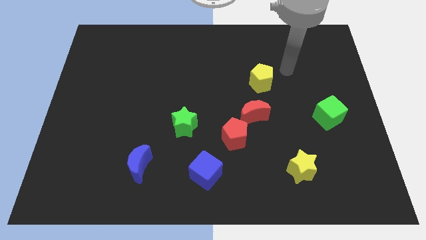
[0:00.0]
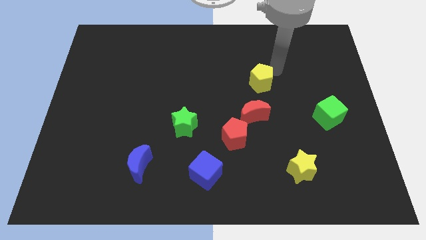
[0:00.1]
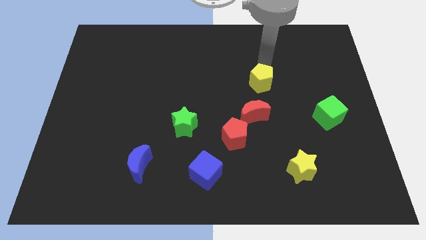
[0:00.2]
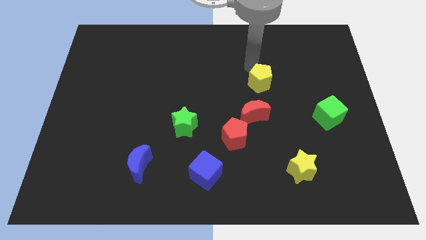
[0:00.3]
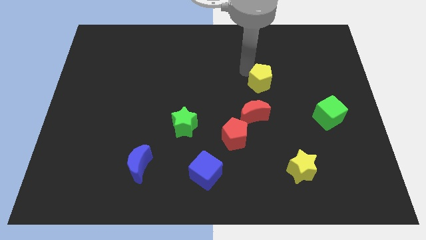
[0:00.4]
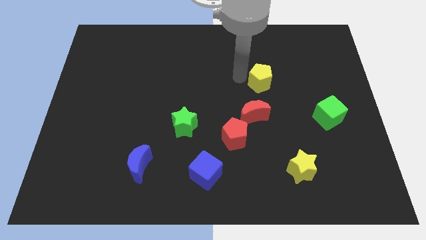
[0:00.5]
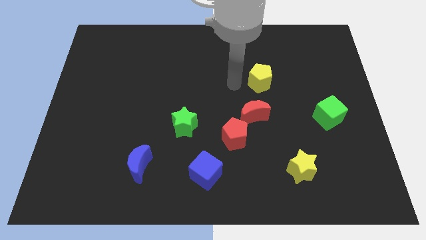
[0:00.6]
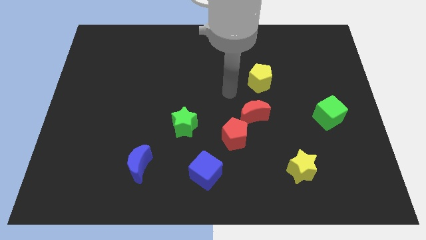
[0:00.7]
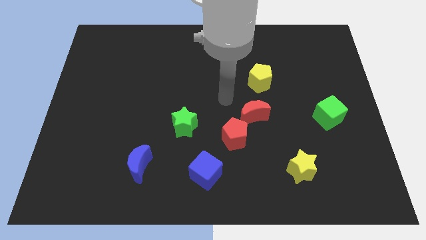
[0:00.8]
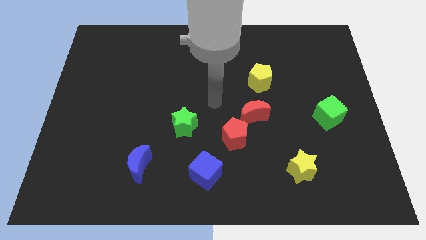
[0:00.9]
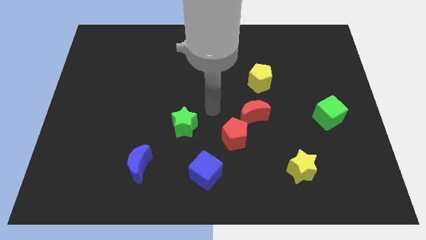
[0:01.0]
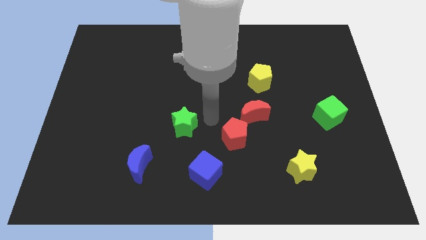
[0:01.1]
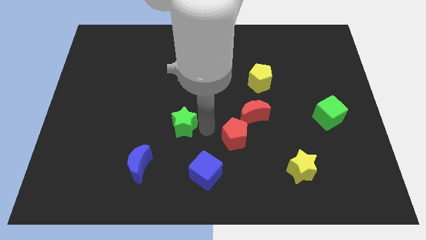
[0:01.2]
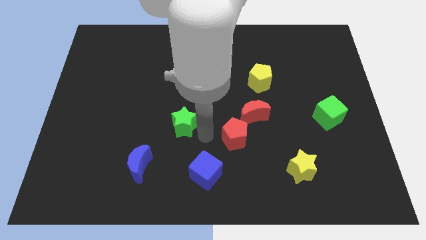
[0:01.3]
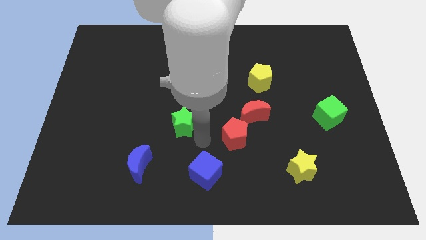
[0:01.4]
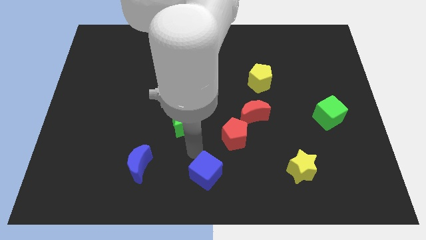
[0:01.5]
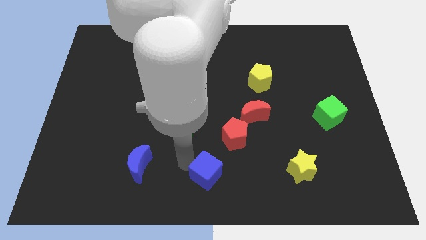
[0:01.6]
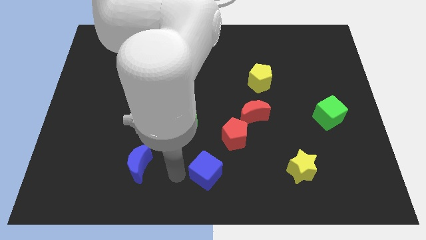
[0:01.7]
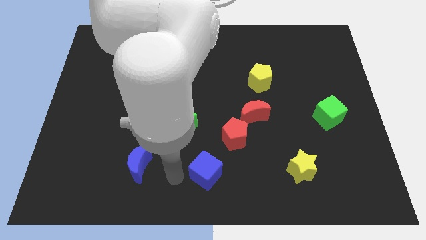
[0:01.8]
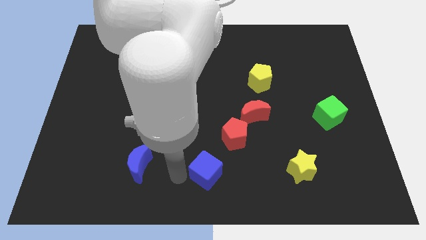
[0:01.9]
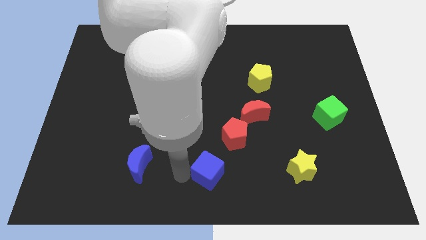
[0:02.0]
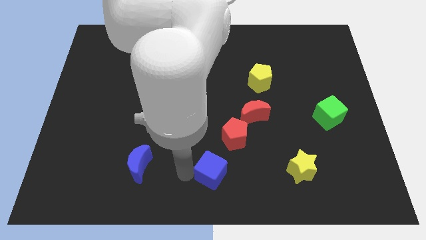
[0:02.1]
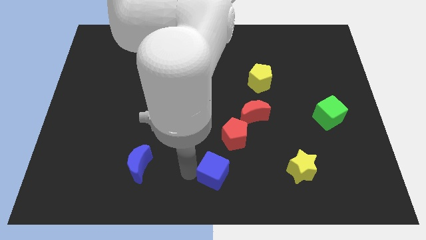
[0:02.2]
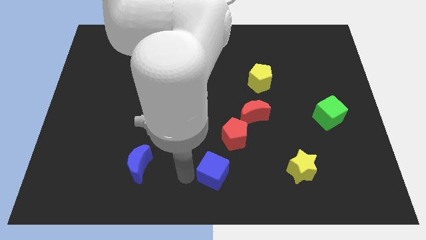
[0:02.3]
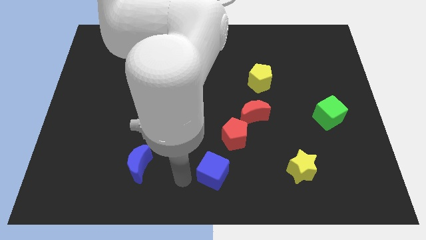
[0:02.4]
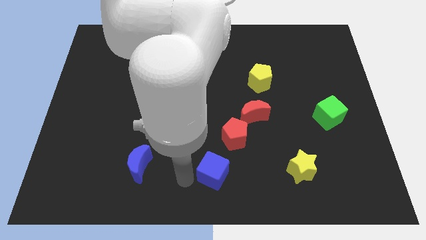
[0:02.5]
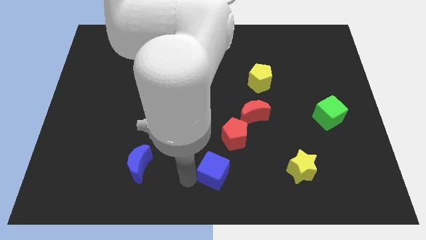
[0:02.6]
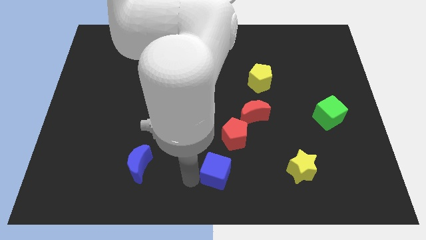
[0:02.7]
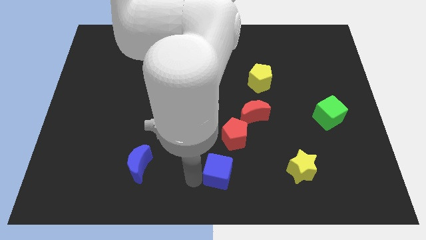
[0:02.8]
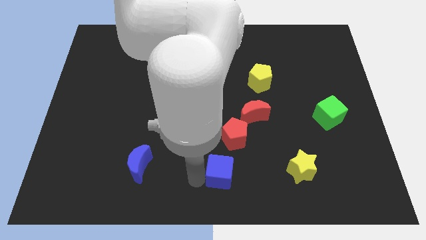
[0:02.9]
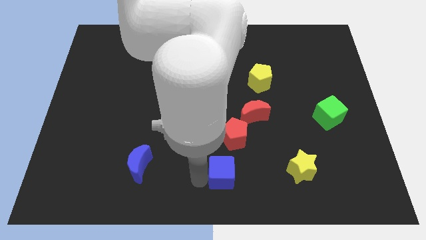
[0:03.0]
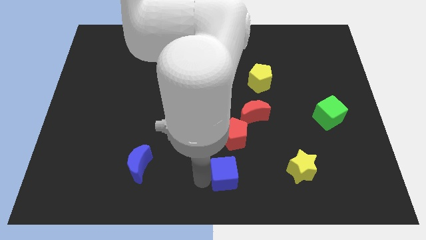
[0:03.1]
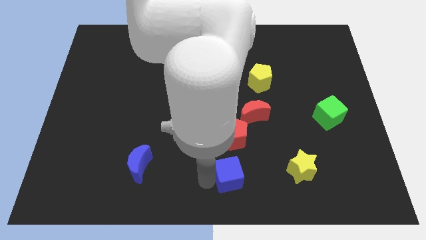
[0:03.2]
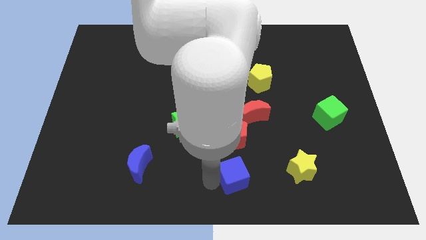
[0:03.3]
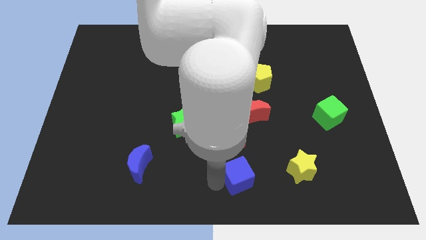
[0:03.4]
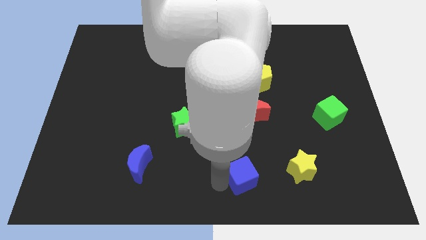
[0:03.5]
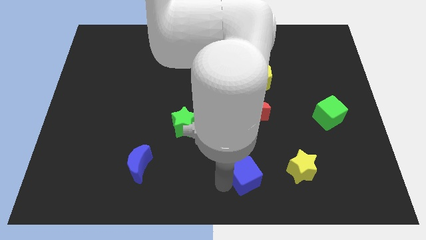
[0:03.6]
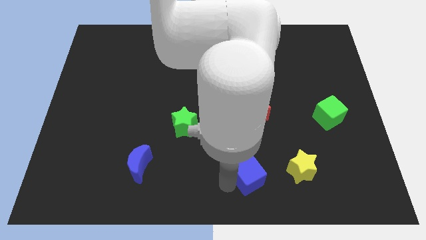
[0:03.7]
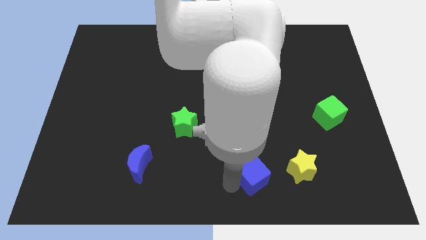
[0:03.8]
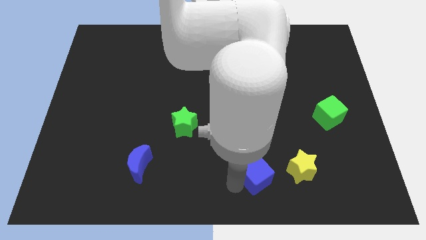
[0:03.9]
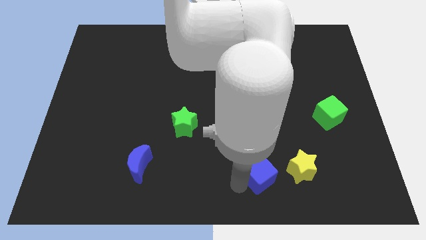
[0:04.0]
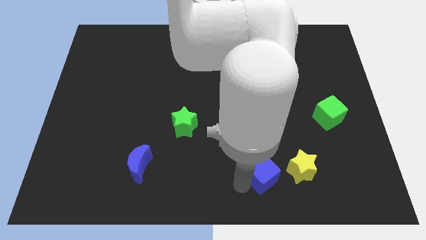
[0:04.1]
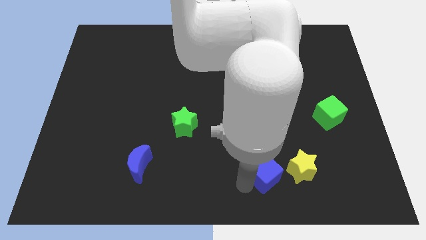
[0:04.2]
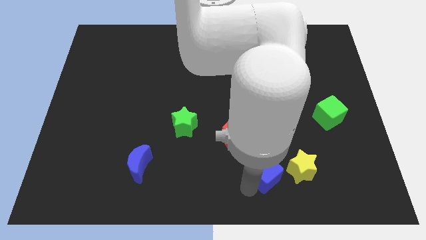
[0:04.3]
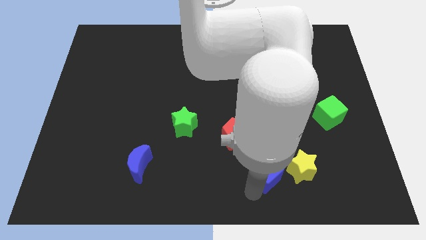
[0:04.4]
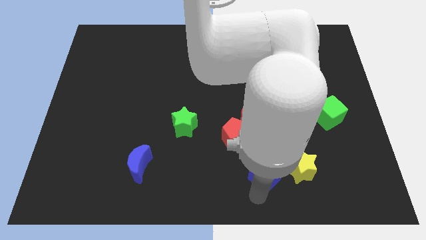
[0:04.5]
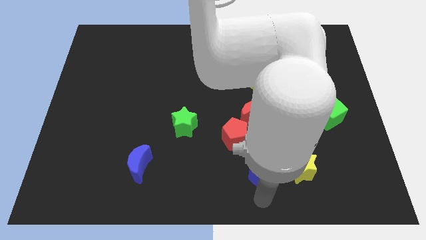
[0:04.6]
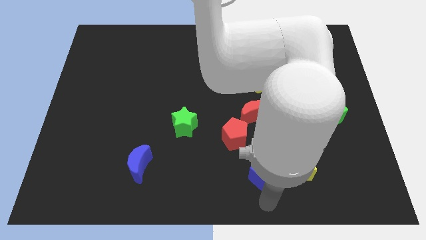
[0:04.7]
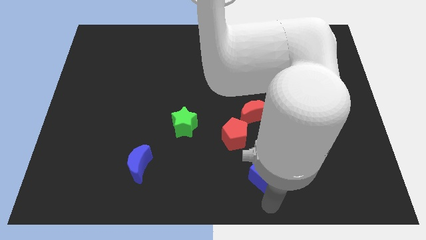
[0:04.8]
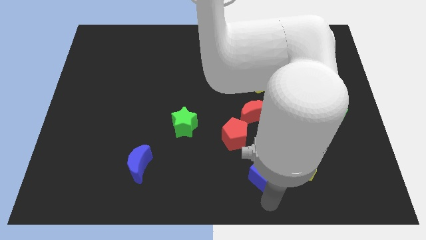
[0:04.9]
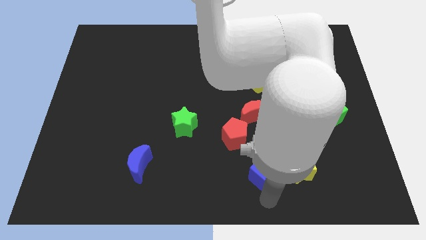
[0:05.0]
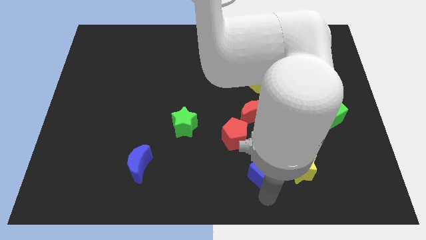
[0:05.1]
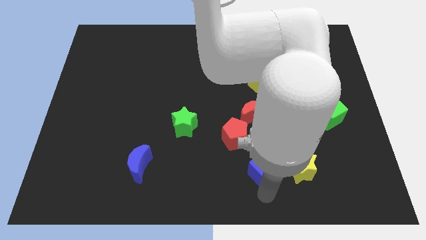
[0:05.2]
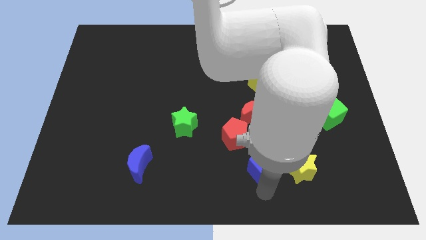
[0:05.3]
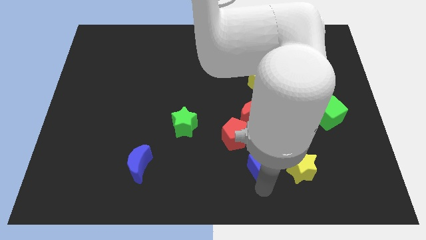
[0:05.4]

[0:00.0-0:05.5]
push the blue cube diagonally up and to the left of the yellow star

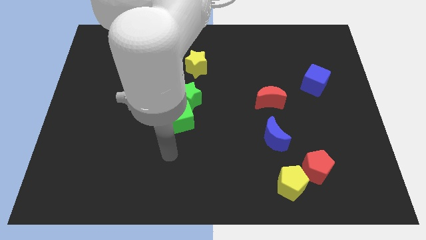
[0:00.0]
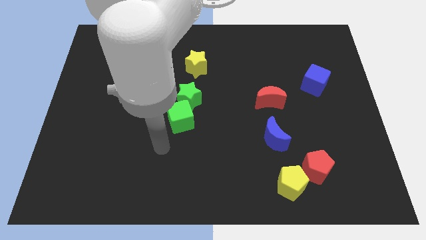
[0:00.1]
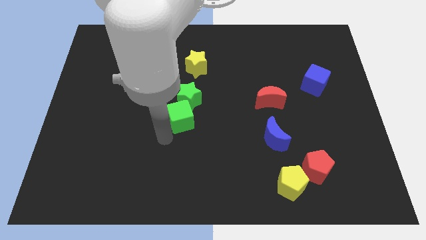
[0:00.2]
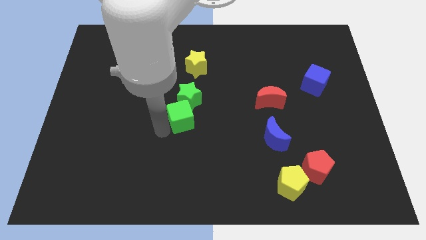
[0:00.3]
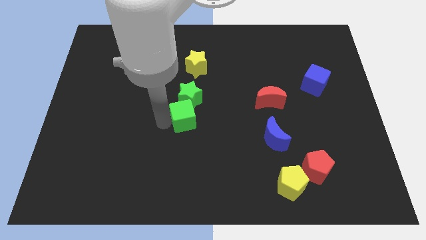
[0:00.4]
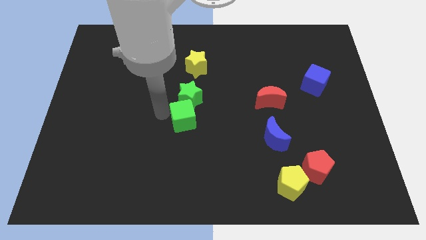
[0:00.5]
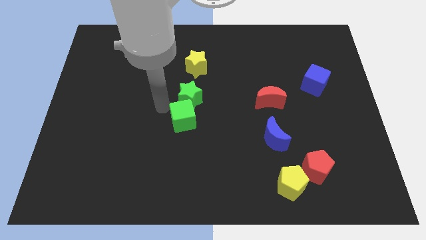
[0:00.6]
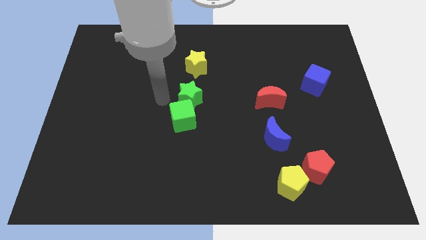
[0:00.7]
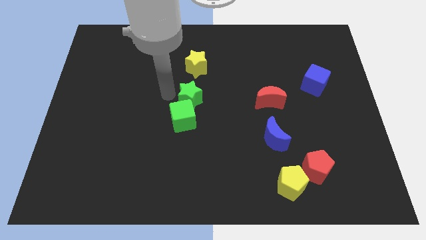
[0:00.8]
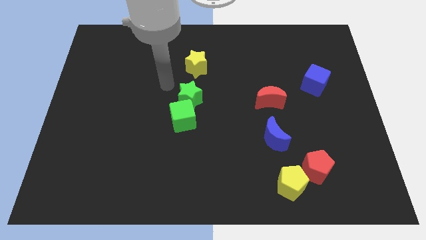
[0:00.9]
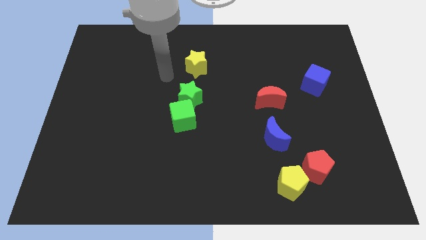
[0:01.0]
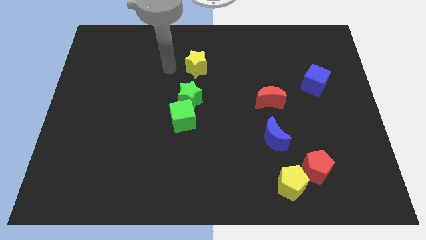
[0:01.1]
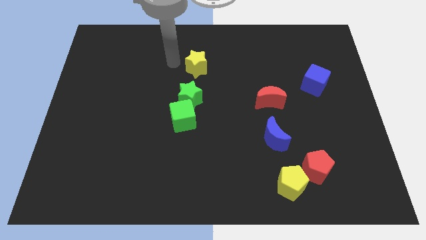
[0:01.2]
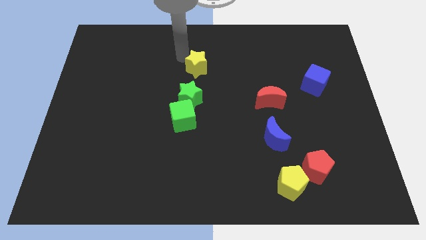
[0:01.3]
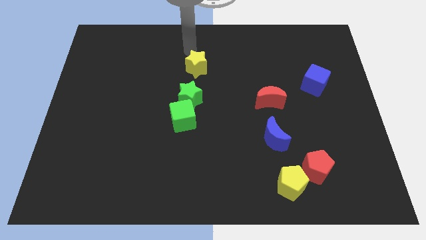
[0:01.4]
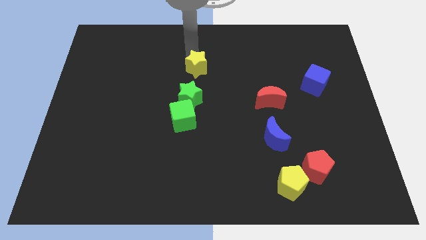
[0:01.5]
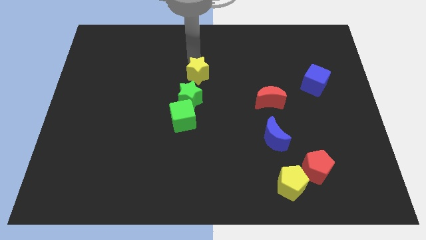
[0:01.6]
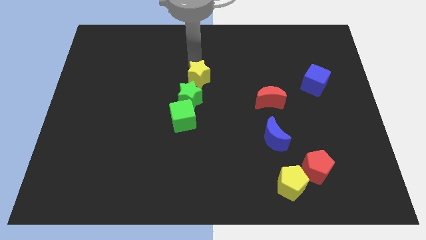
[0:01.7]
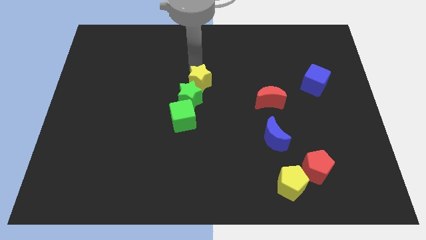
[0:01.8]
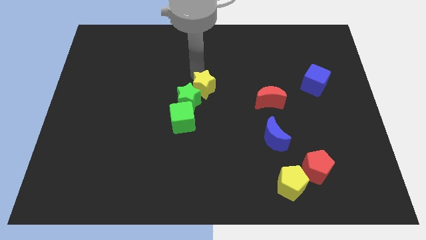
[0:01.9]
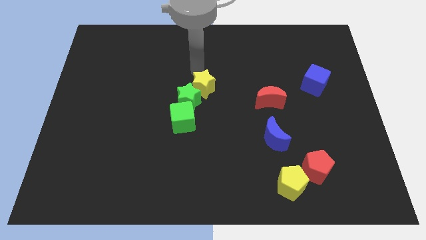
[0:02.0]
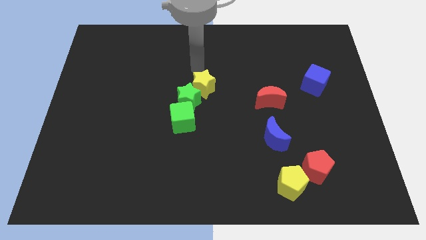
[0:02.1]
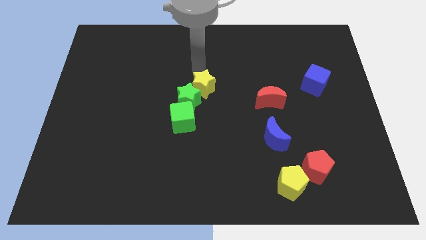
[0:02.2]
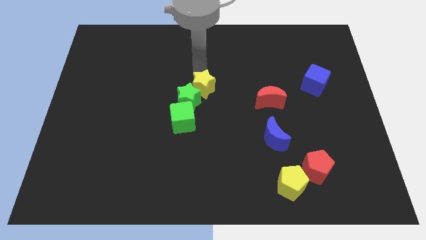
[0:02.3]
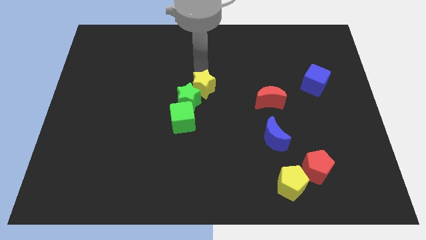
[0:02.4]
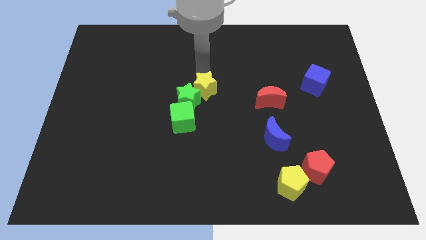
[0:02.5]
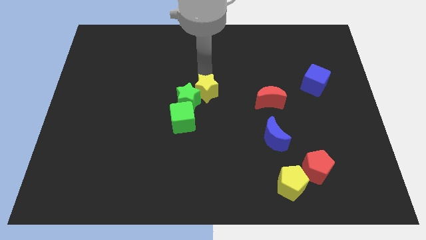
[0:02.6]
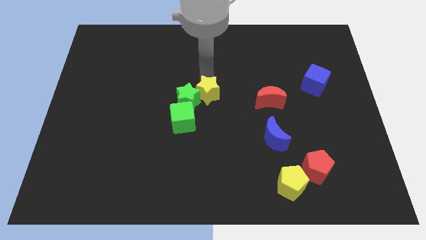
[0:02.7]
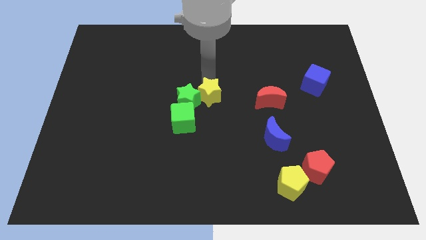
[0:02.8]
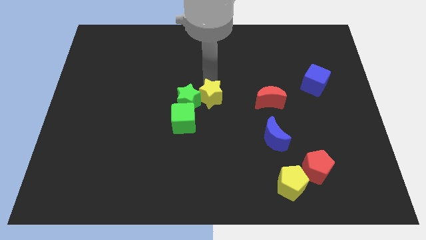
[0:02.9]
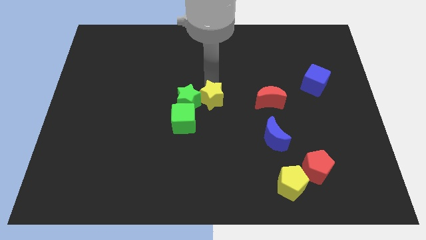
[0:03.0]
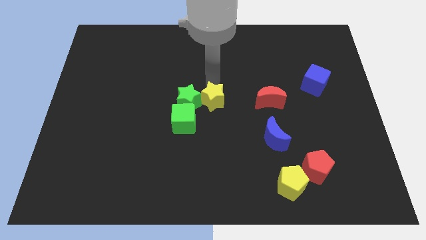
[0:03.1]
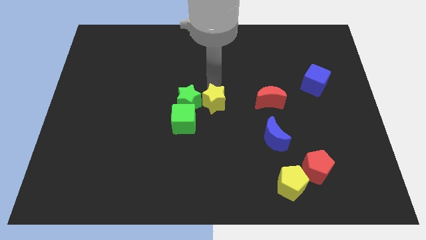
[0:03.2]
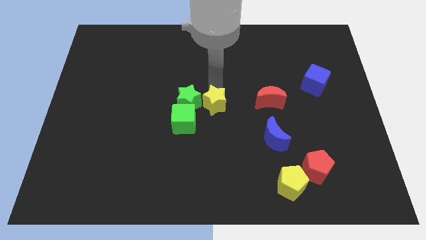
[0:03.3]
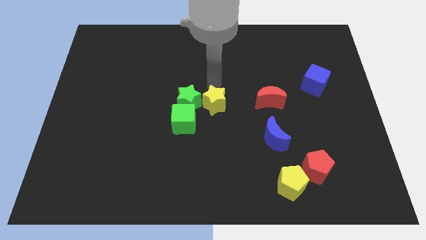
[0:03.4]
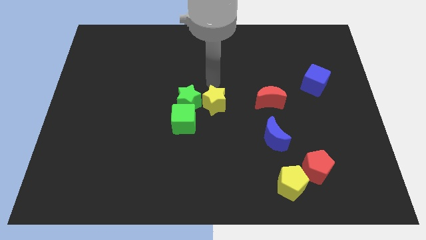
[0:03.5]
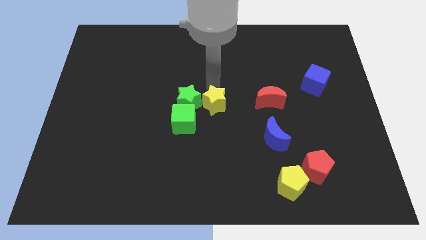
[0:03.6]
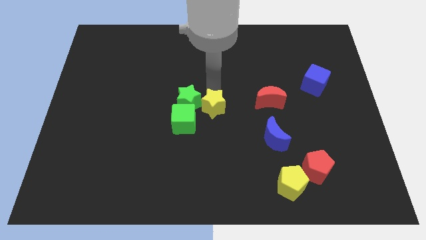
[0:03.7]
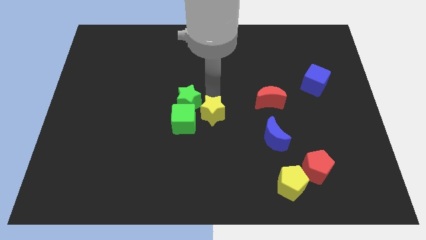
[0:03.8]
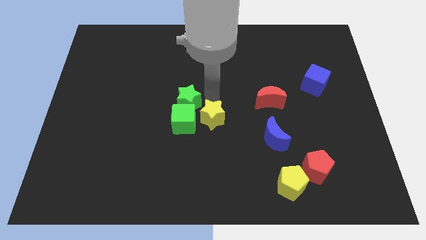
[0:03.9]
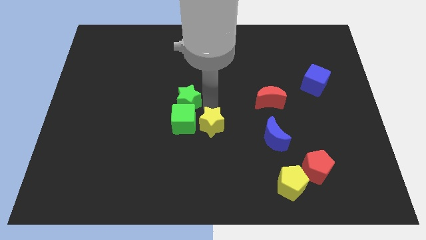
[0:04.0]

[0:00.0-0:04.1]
slide the yellow star just left of the blue moon
